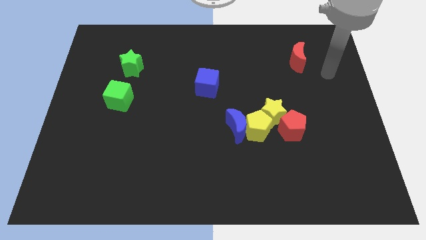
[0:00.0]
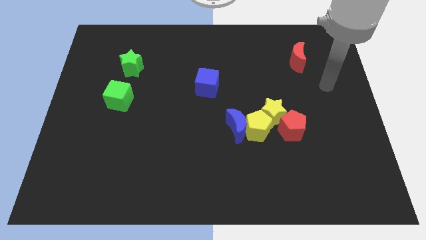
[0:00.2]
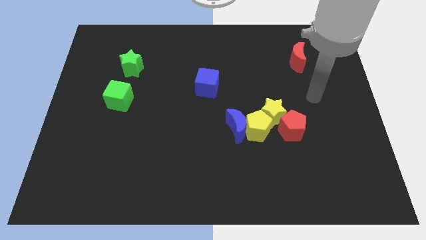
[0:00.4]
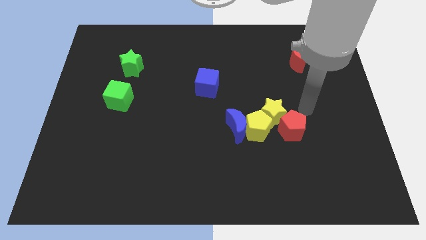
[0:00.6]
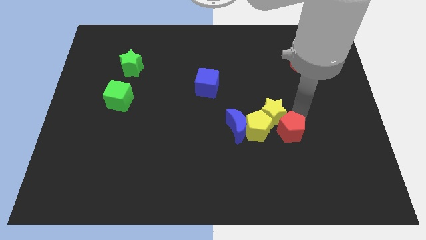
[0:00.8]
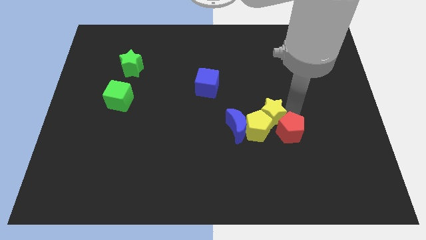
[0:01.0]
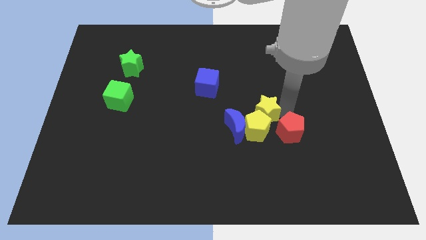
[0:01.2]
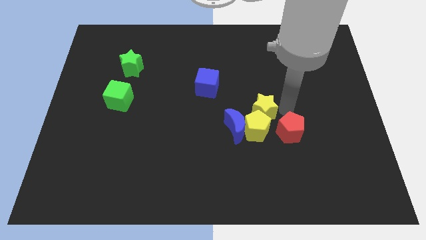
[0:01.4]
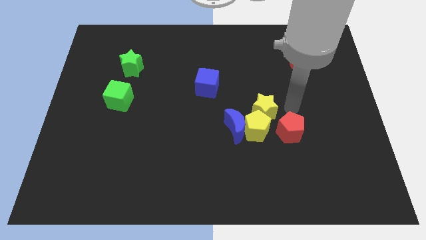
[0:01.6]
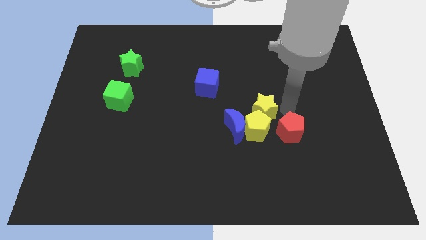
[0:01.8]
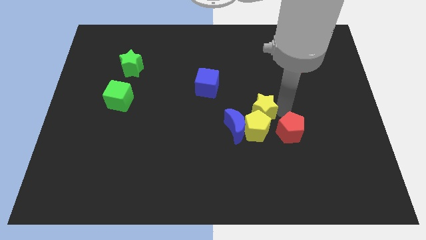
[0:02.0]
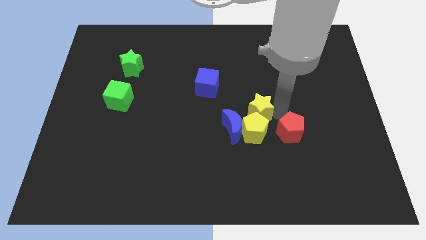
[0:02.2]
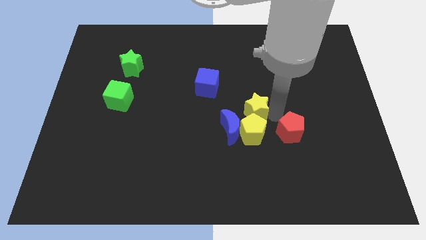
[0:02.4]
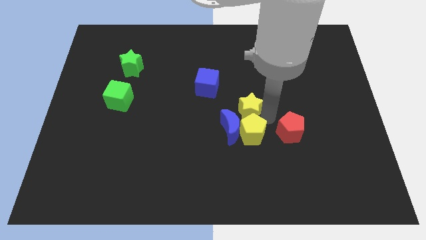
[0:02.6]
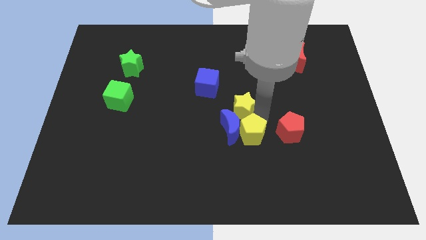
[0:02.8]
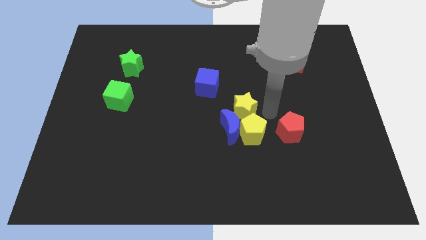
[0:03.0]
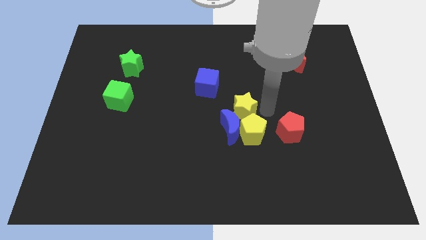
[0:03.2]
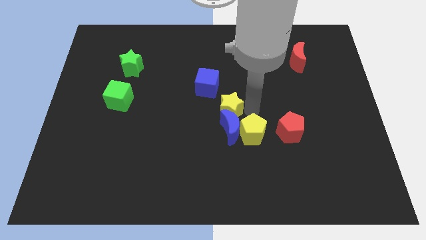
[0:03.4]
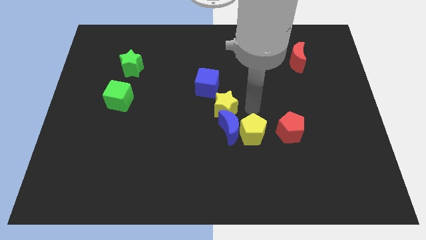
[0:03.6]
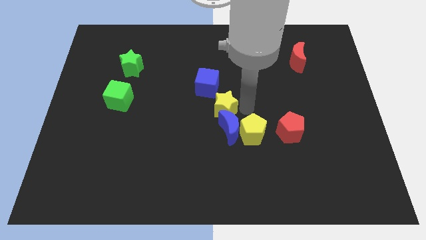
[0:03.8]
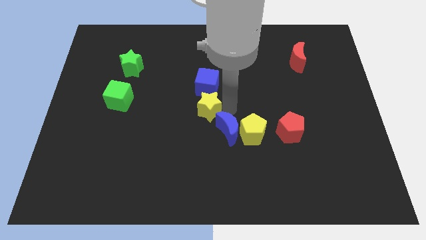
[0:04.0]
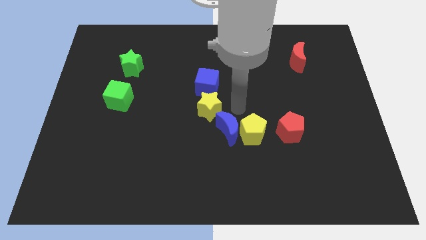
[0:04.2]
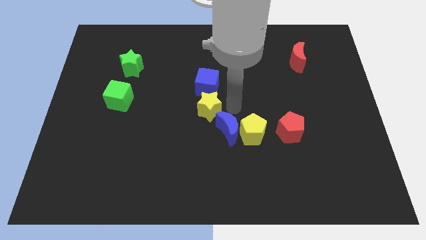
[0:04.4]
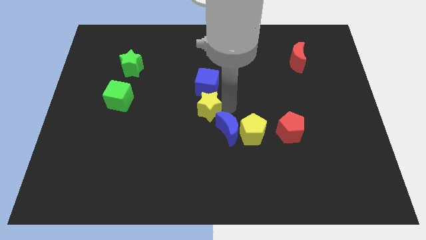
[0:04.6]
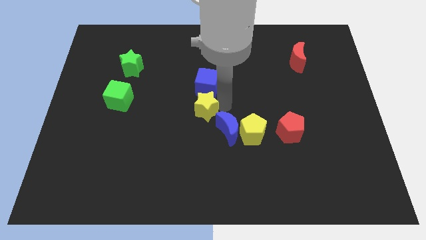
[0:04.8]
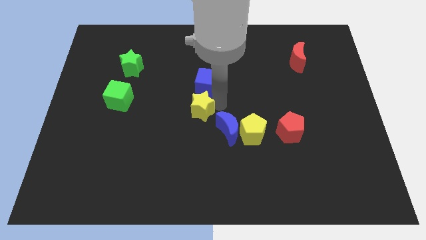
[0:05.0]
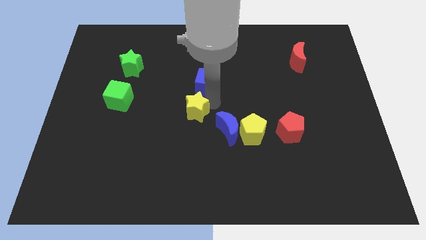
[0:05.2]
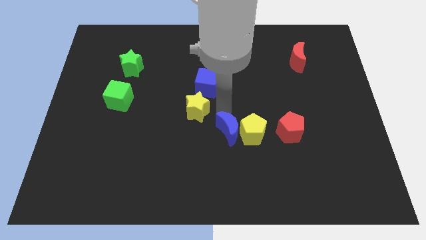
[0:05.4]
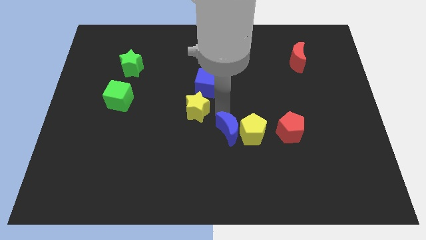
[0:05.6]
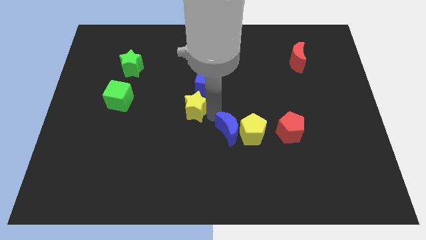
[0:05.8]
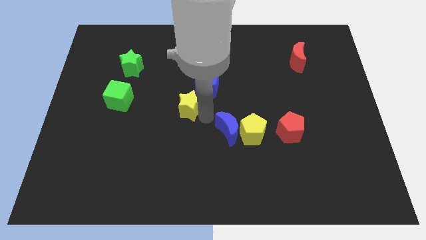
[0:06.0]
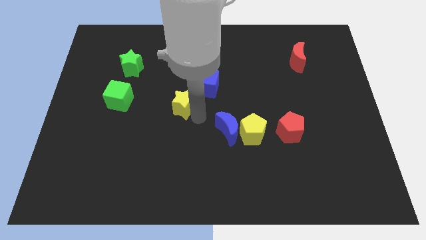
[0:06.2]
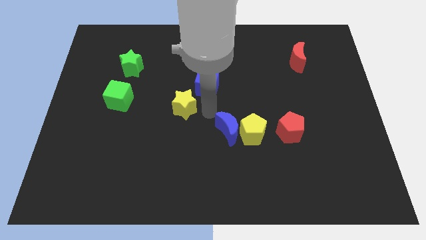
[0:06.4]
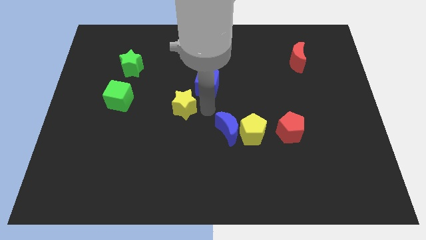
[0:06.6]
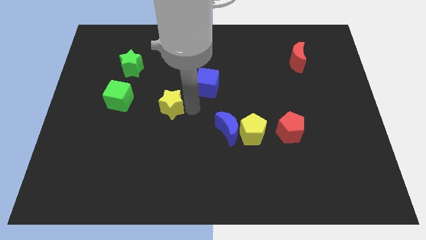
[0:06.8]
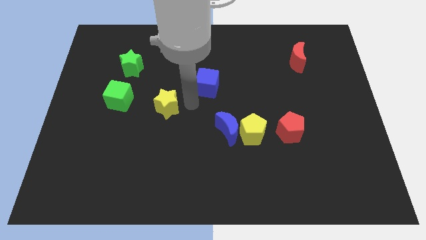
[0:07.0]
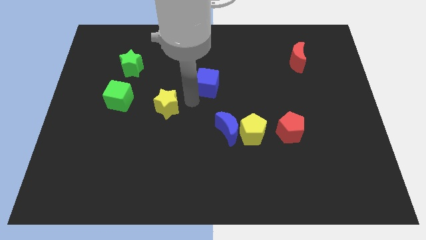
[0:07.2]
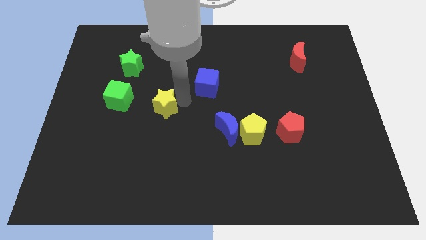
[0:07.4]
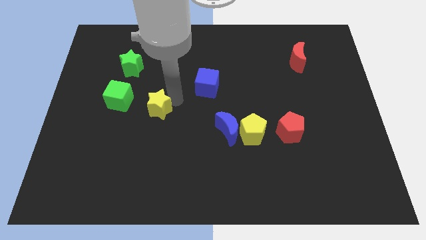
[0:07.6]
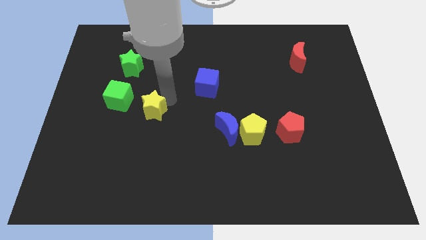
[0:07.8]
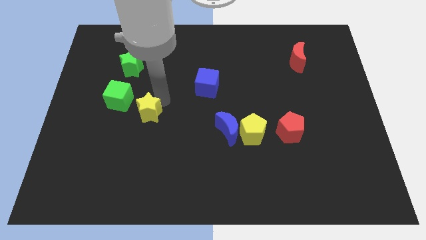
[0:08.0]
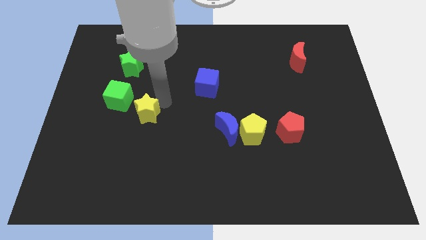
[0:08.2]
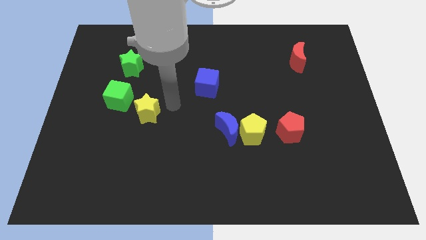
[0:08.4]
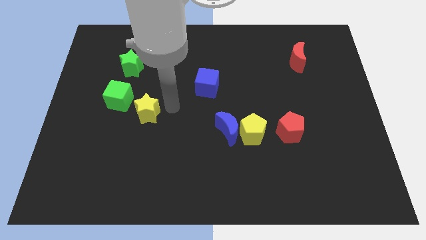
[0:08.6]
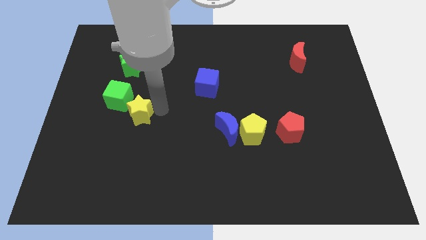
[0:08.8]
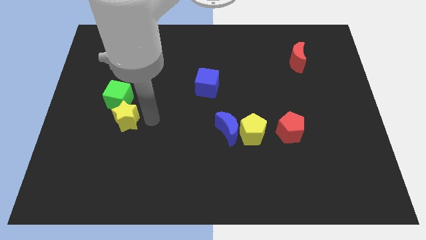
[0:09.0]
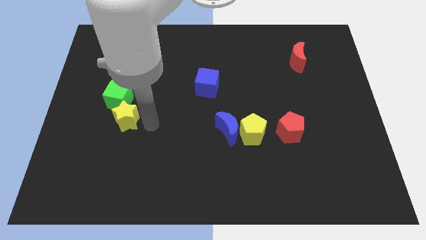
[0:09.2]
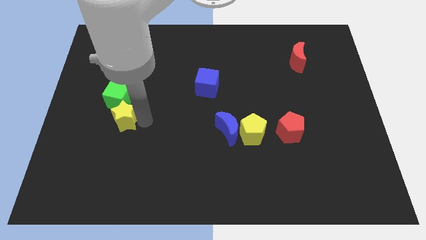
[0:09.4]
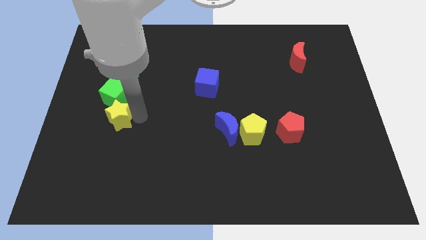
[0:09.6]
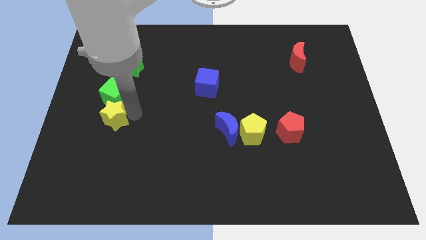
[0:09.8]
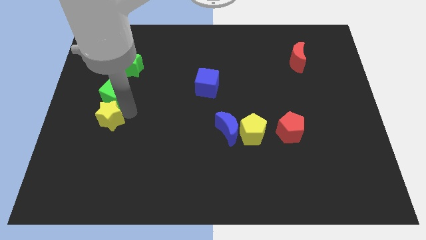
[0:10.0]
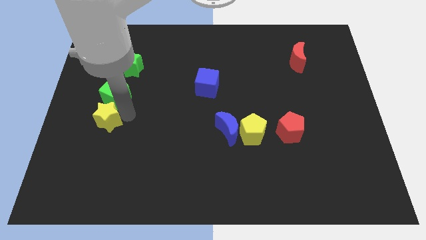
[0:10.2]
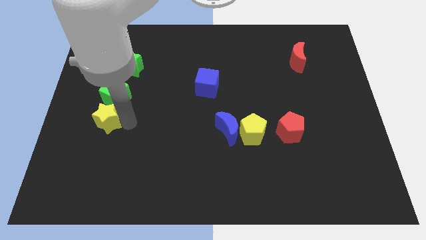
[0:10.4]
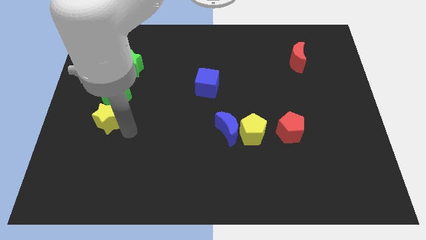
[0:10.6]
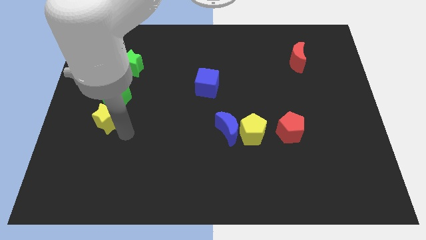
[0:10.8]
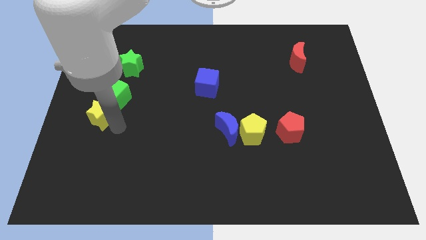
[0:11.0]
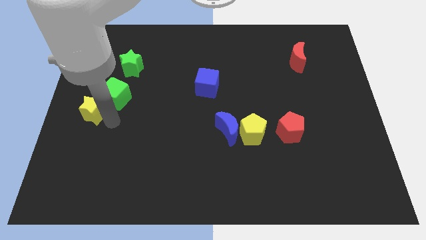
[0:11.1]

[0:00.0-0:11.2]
slide the yellow star to the left side

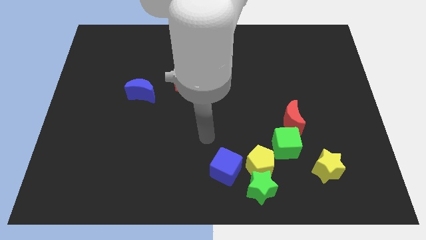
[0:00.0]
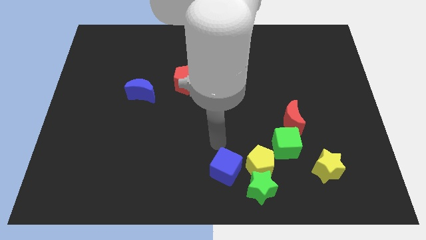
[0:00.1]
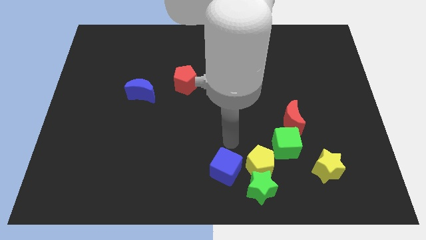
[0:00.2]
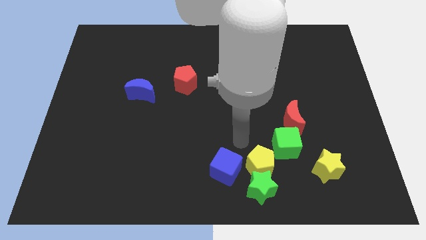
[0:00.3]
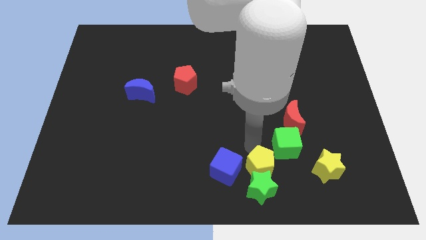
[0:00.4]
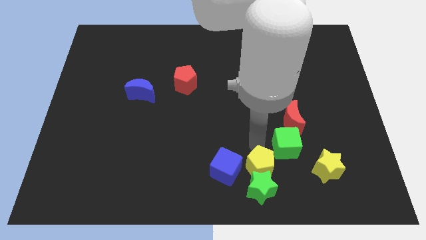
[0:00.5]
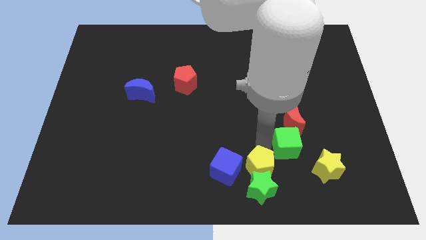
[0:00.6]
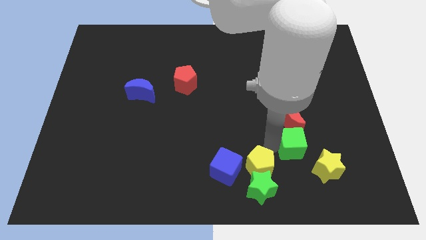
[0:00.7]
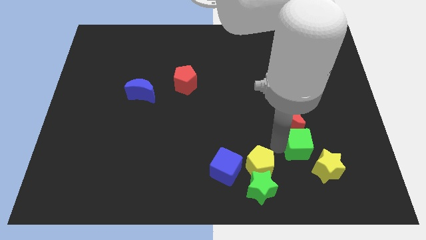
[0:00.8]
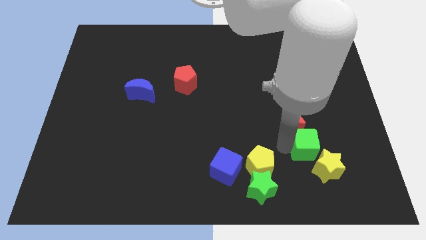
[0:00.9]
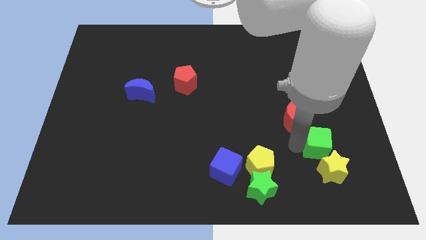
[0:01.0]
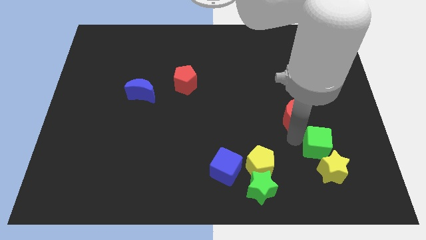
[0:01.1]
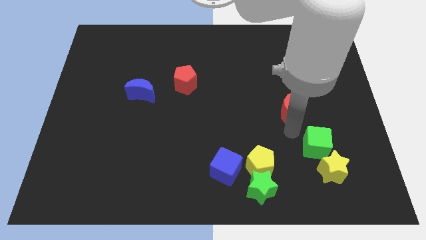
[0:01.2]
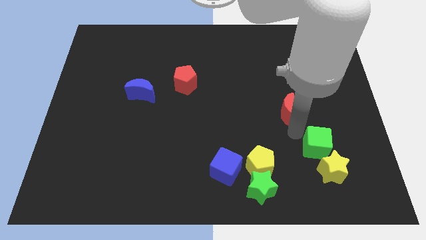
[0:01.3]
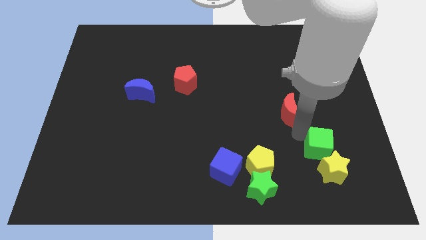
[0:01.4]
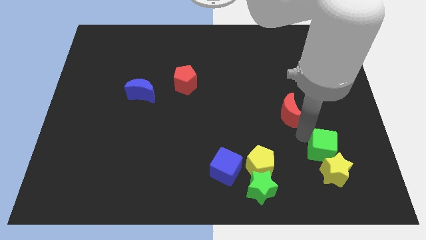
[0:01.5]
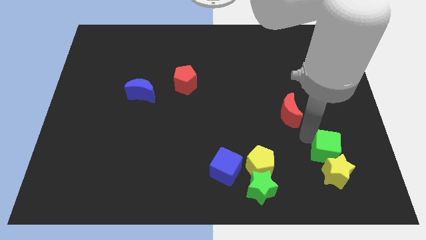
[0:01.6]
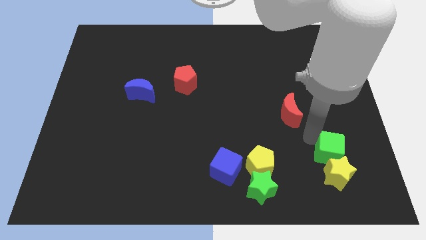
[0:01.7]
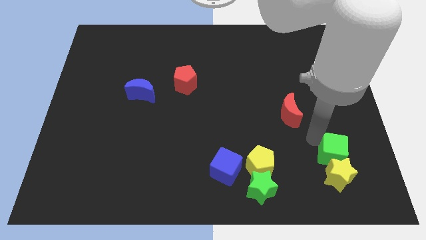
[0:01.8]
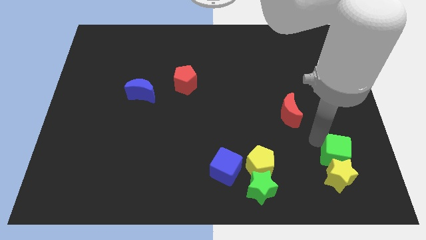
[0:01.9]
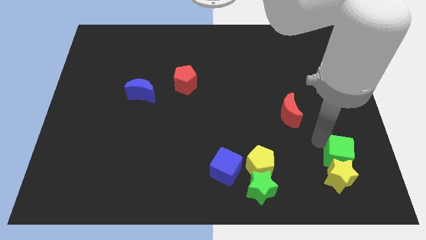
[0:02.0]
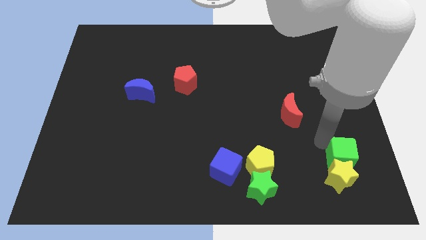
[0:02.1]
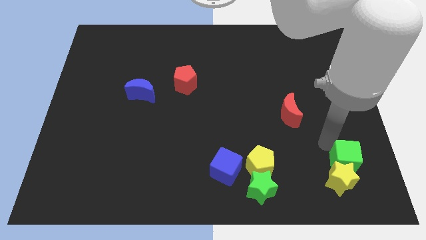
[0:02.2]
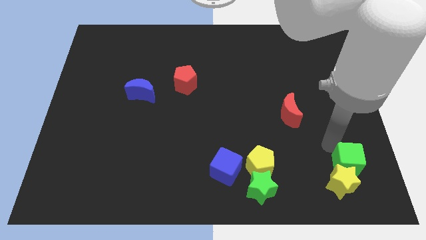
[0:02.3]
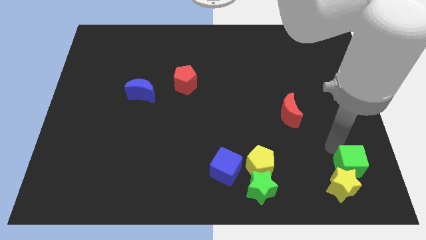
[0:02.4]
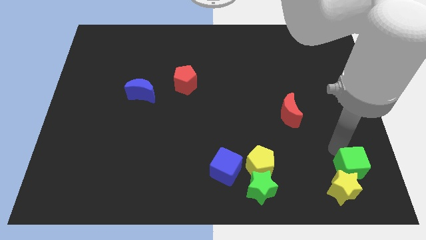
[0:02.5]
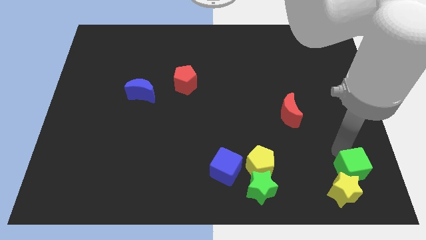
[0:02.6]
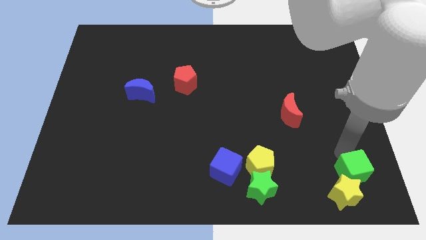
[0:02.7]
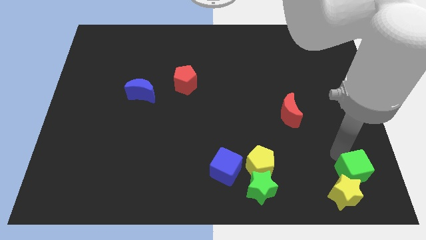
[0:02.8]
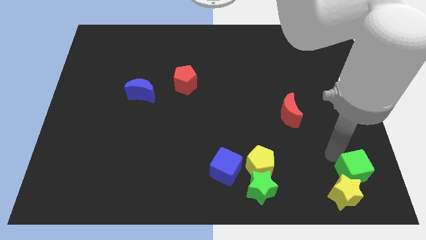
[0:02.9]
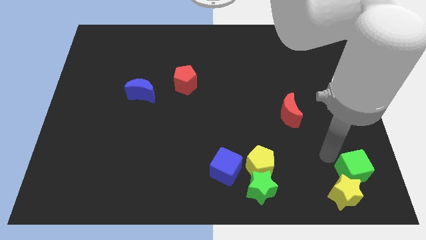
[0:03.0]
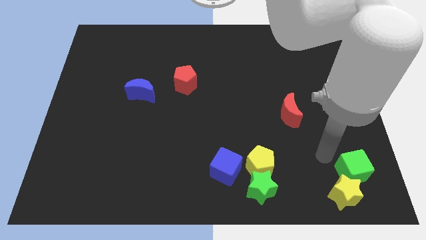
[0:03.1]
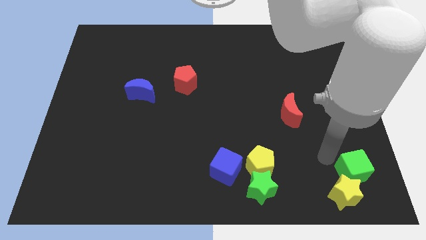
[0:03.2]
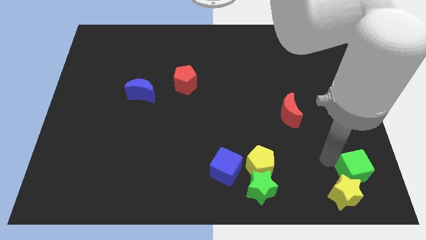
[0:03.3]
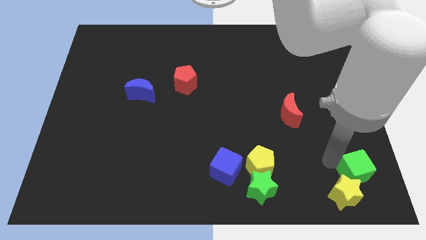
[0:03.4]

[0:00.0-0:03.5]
push the green cube to the bottom right corner
